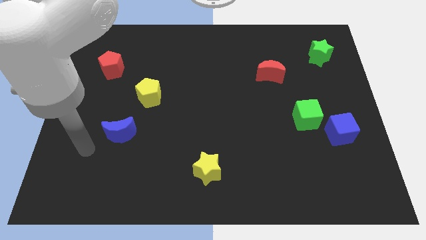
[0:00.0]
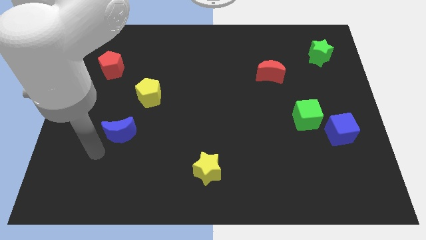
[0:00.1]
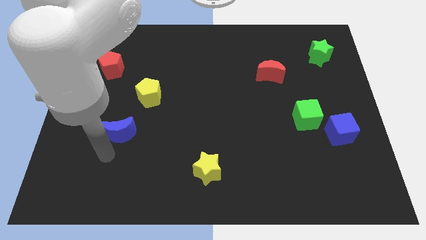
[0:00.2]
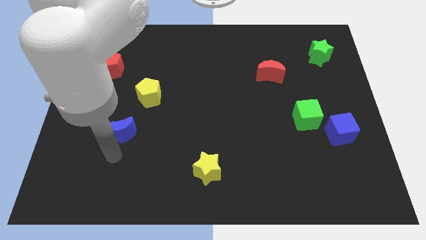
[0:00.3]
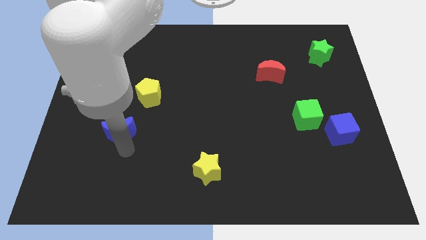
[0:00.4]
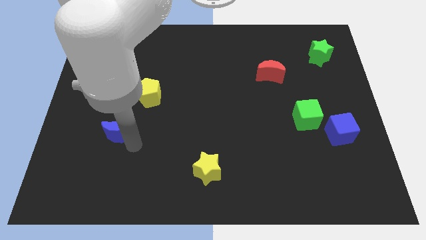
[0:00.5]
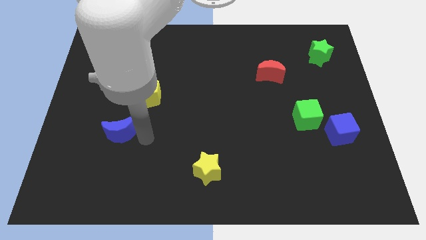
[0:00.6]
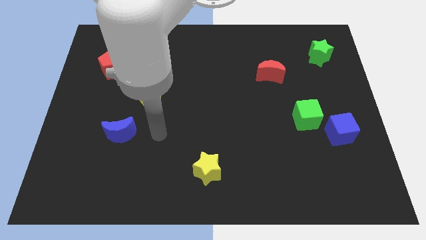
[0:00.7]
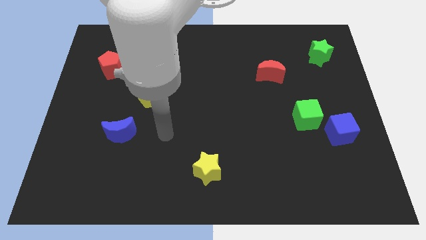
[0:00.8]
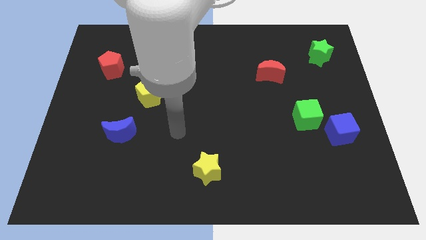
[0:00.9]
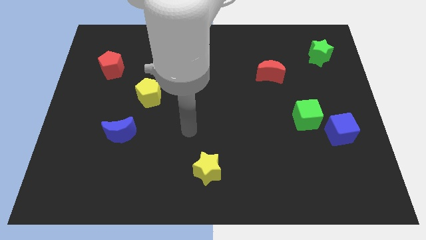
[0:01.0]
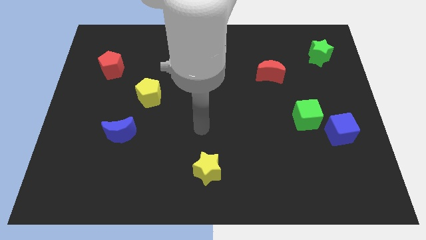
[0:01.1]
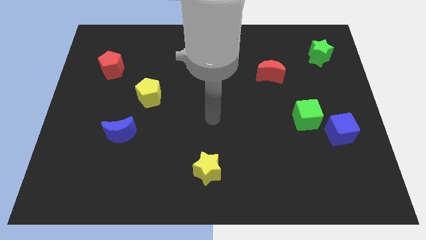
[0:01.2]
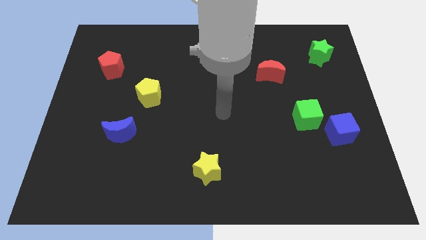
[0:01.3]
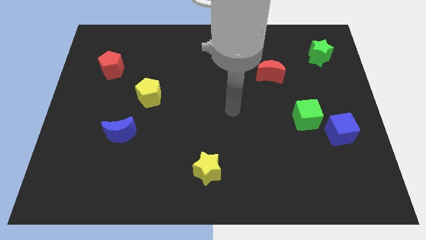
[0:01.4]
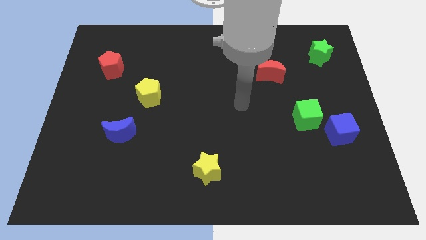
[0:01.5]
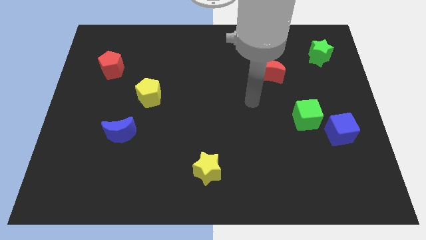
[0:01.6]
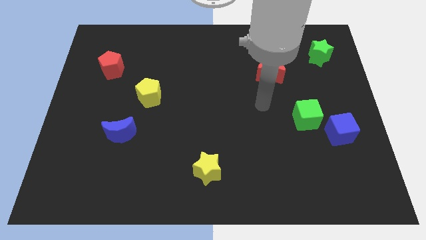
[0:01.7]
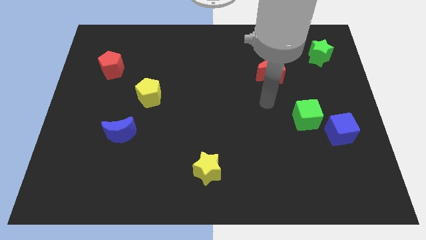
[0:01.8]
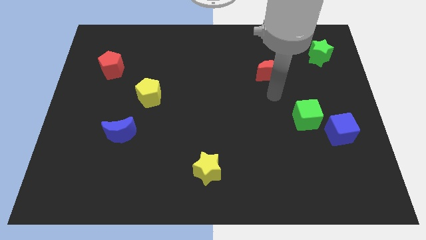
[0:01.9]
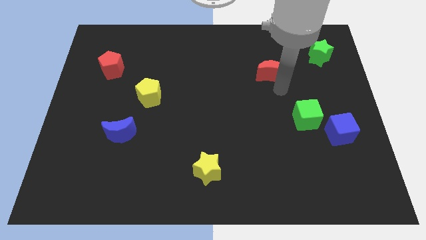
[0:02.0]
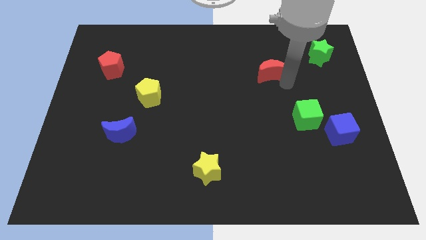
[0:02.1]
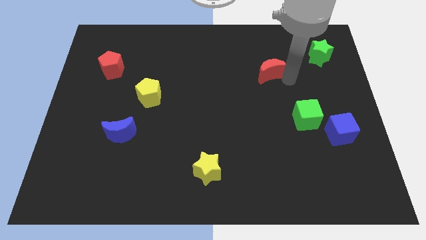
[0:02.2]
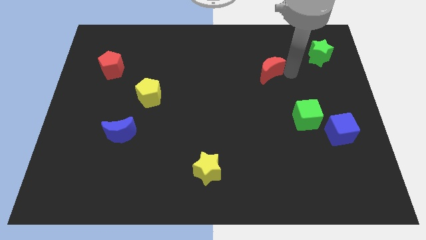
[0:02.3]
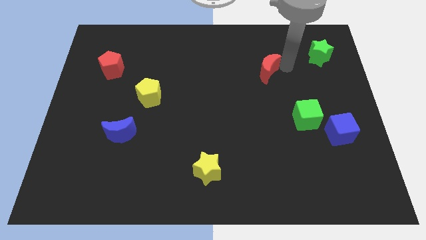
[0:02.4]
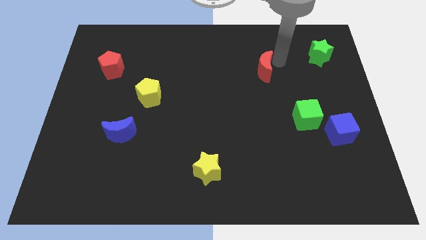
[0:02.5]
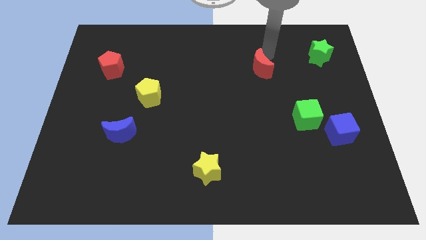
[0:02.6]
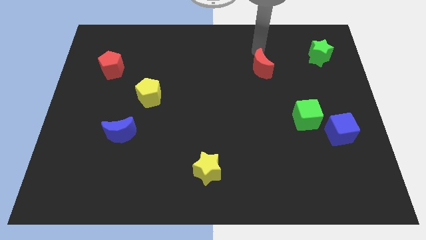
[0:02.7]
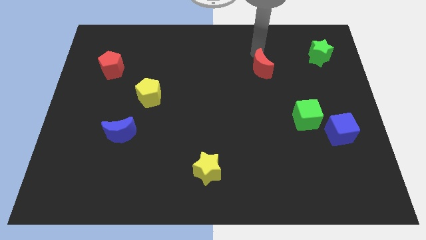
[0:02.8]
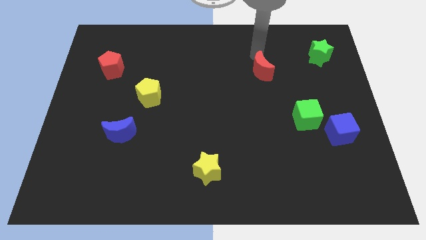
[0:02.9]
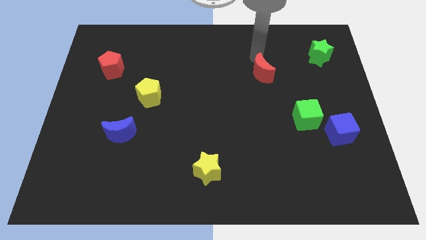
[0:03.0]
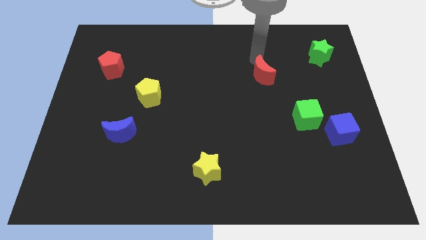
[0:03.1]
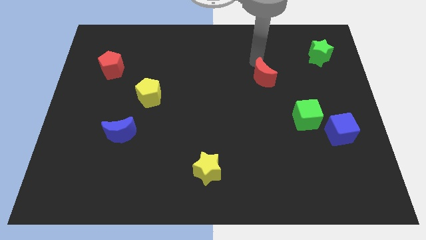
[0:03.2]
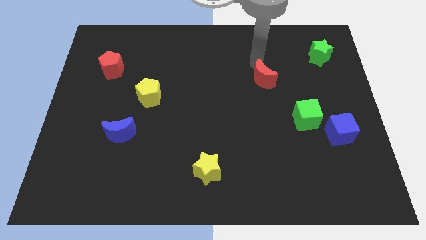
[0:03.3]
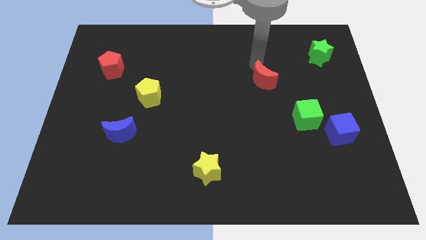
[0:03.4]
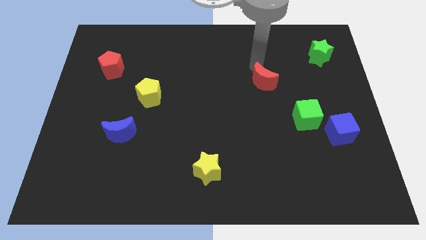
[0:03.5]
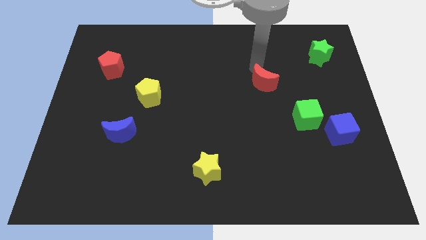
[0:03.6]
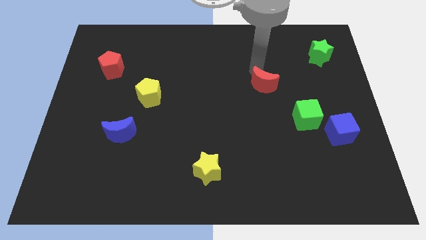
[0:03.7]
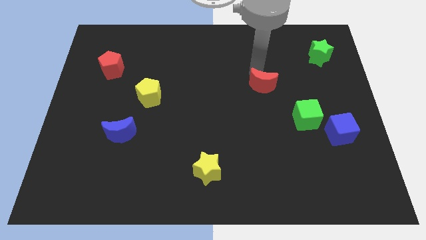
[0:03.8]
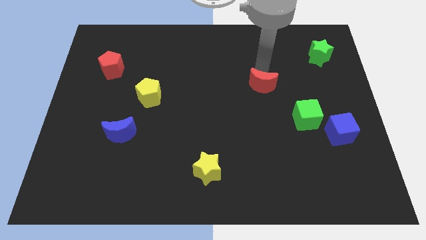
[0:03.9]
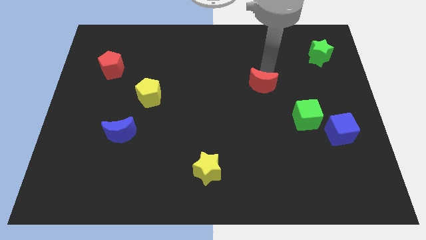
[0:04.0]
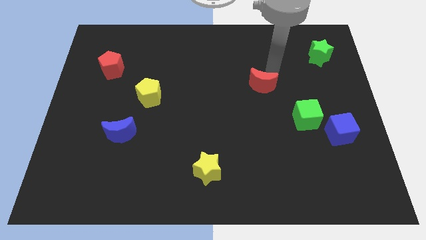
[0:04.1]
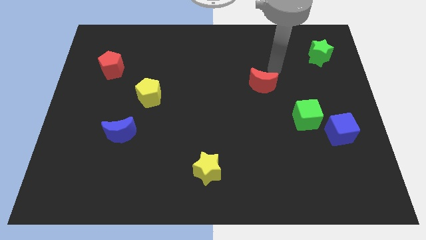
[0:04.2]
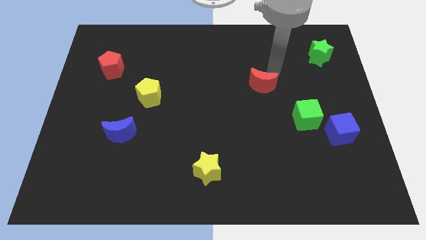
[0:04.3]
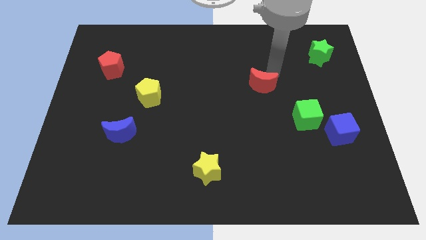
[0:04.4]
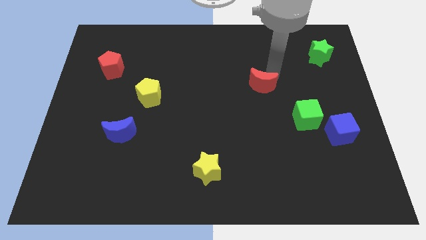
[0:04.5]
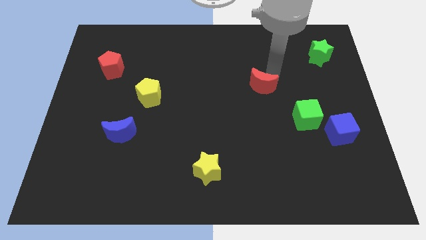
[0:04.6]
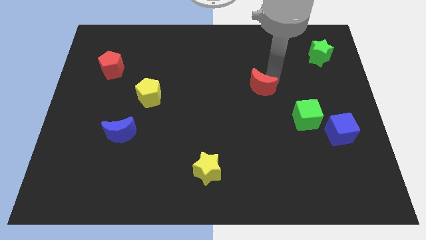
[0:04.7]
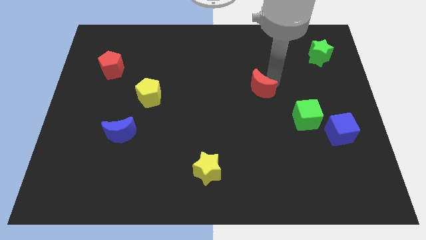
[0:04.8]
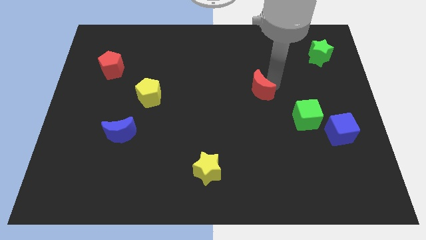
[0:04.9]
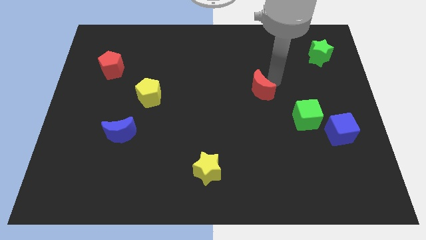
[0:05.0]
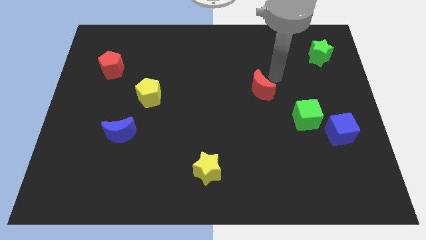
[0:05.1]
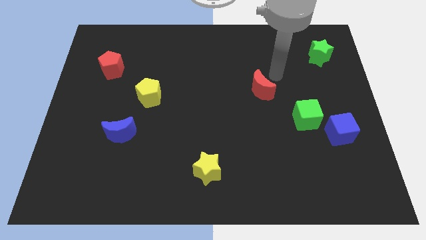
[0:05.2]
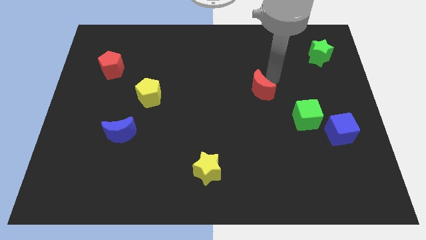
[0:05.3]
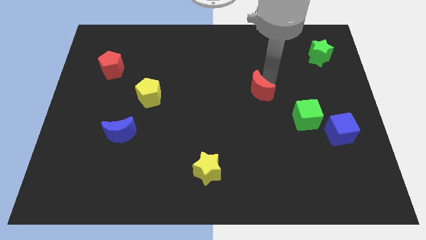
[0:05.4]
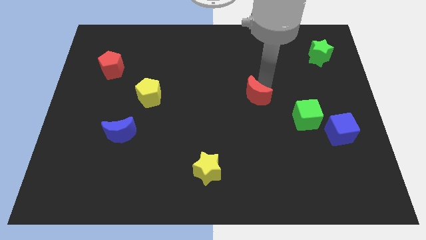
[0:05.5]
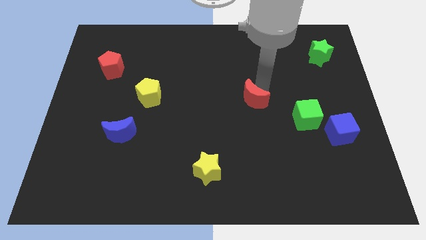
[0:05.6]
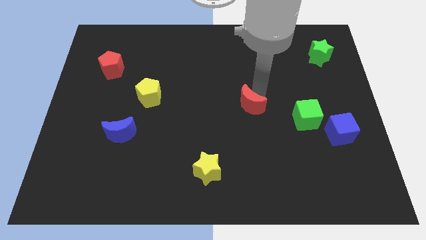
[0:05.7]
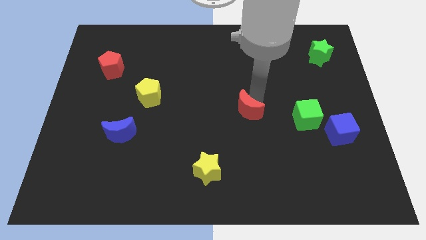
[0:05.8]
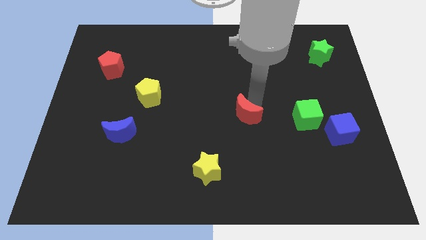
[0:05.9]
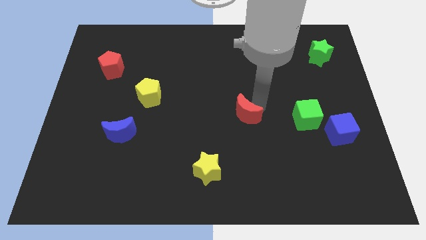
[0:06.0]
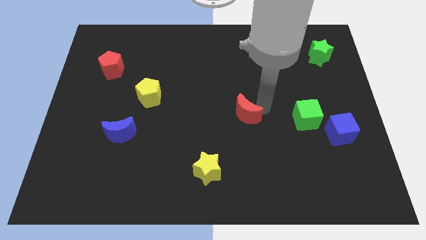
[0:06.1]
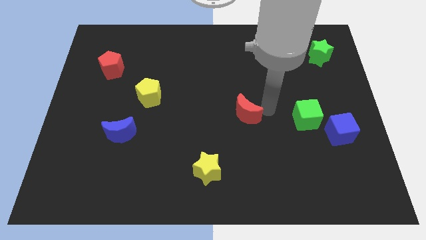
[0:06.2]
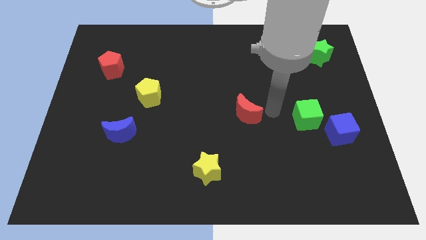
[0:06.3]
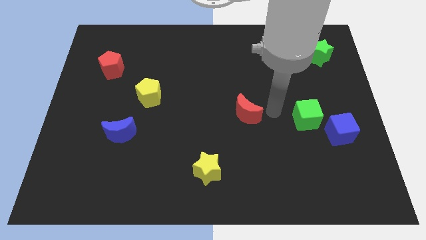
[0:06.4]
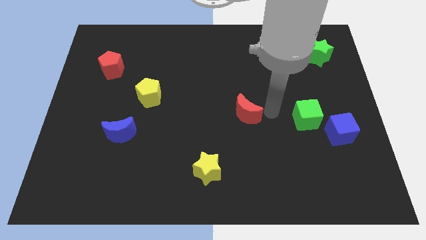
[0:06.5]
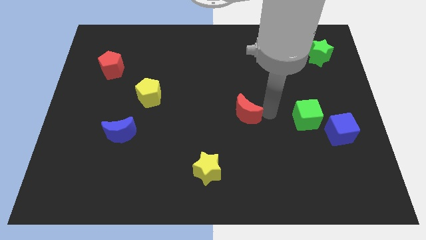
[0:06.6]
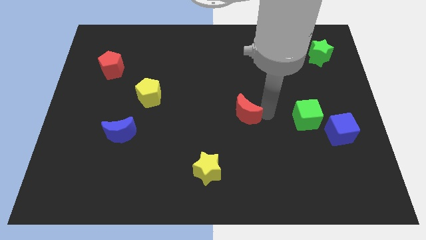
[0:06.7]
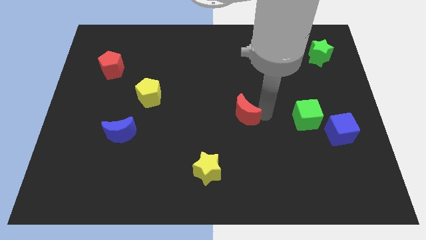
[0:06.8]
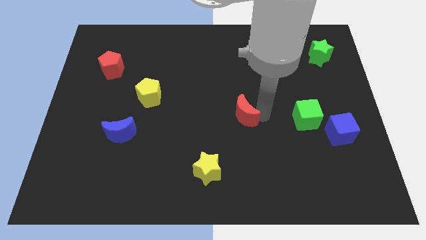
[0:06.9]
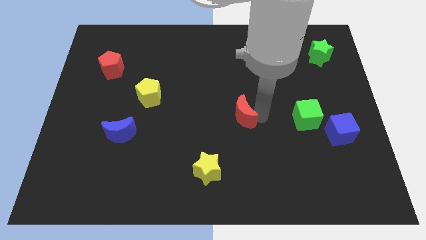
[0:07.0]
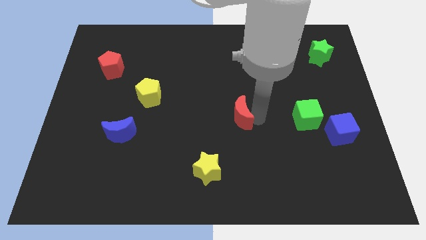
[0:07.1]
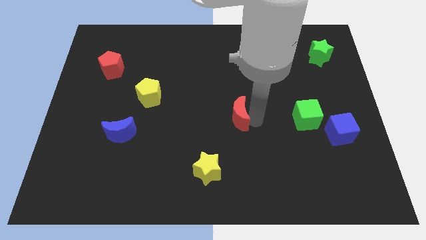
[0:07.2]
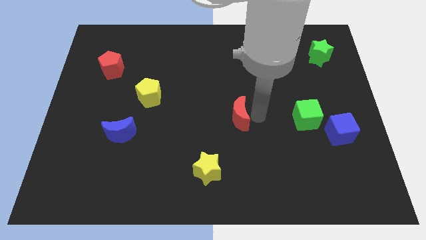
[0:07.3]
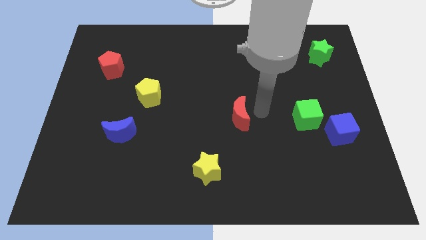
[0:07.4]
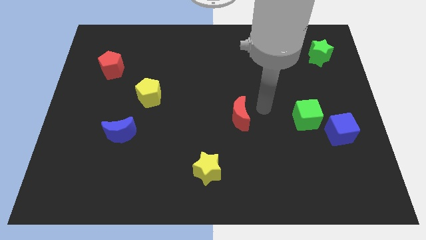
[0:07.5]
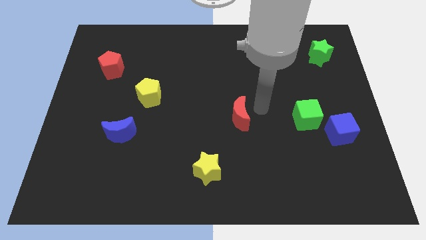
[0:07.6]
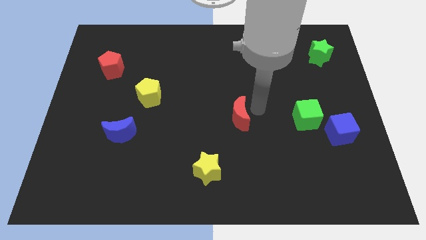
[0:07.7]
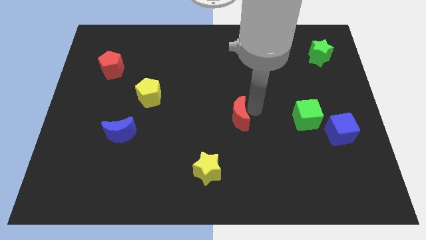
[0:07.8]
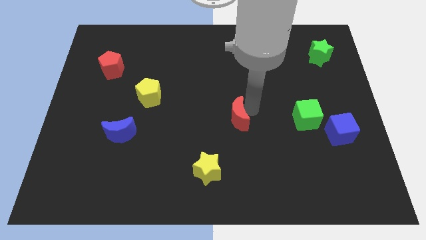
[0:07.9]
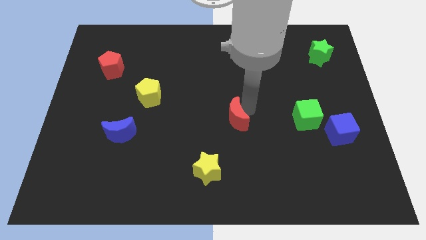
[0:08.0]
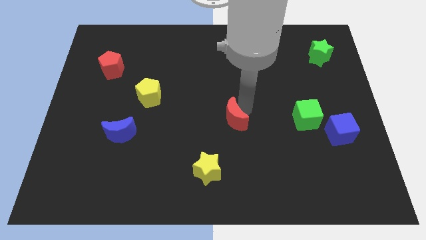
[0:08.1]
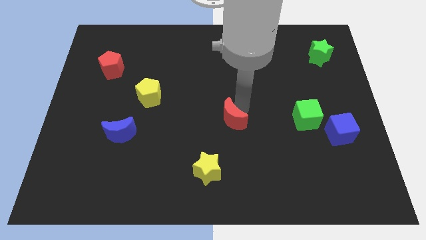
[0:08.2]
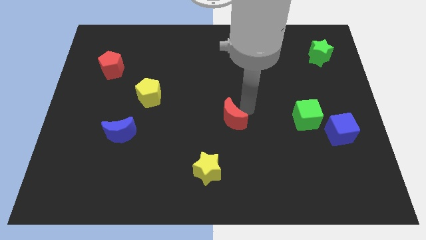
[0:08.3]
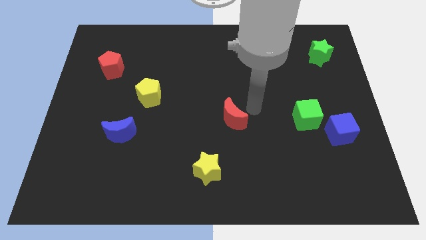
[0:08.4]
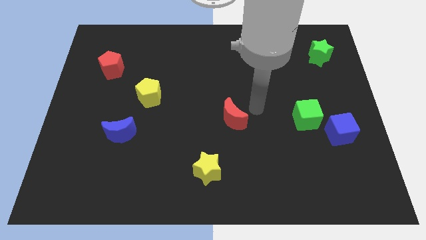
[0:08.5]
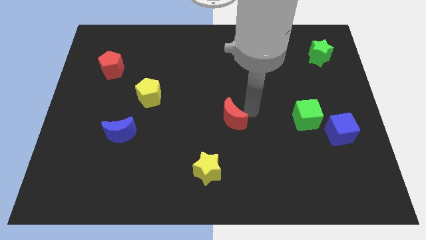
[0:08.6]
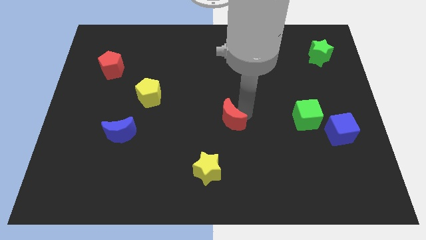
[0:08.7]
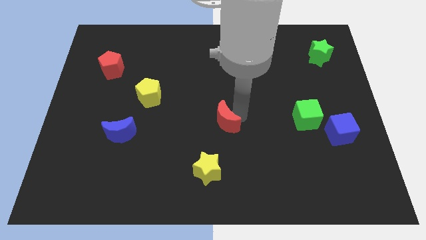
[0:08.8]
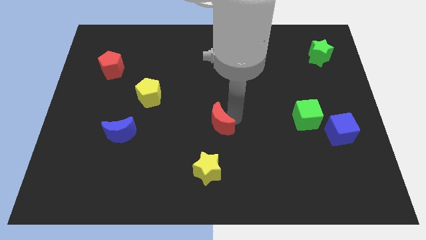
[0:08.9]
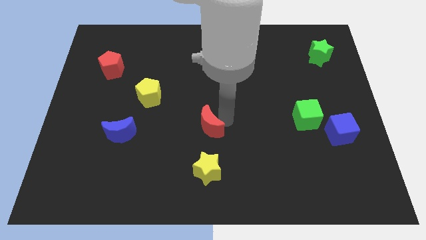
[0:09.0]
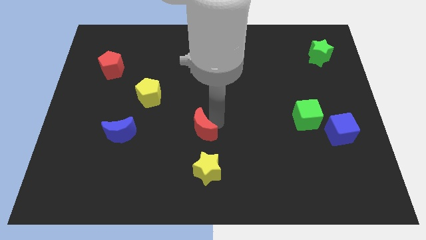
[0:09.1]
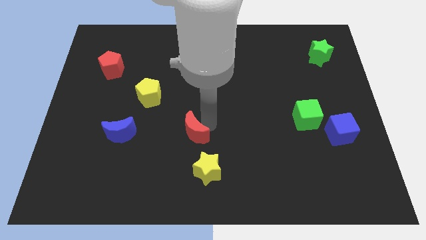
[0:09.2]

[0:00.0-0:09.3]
put the red moon to the top left of the yellow star
